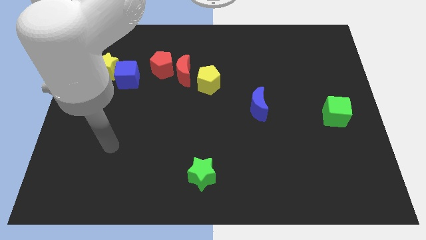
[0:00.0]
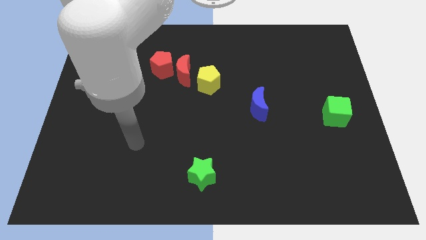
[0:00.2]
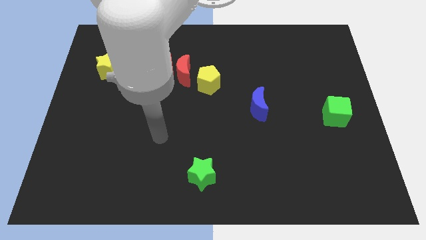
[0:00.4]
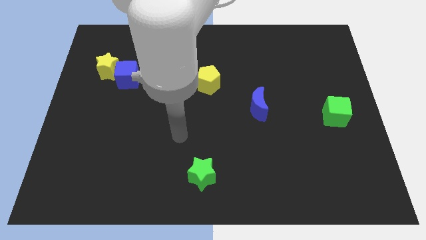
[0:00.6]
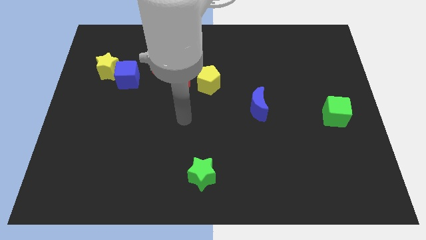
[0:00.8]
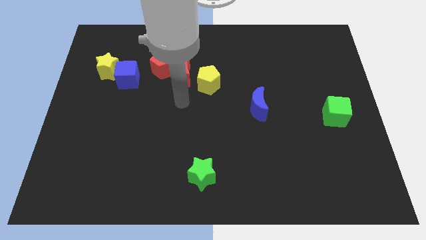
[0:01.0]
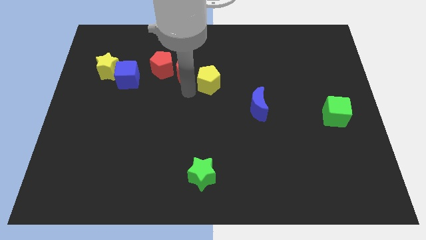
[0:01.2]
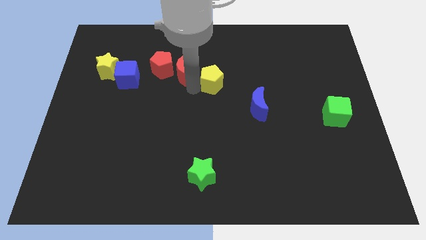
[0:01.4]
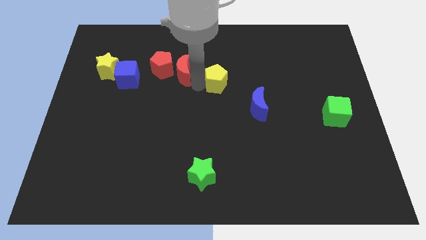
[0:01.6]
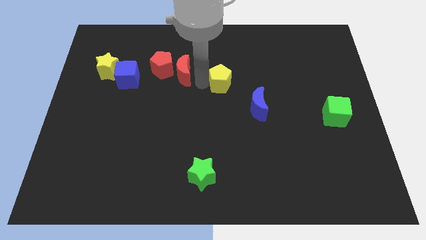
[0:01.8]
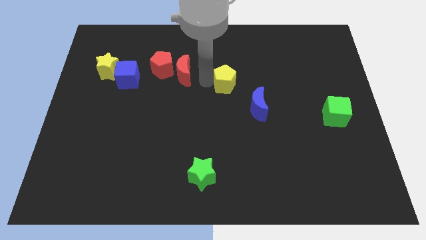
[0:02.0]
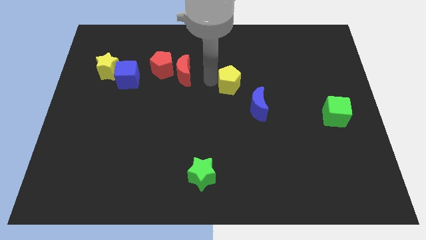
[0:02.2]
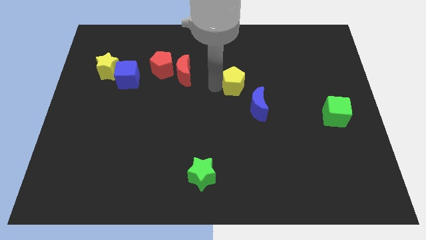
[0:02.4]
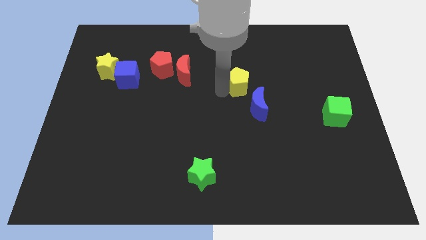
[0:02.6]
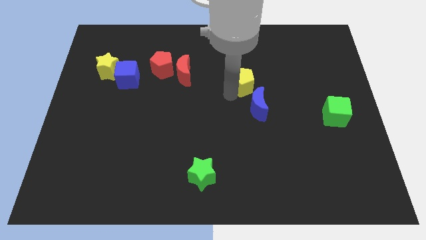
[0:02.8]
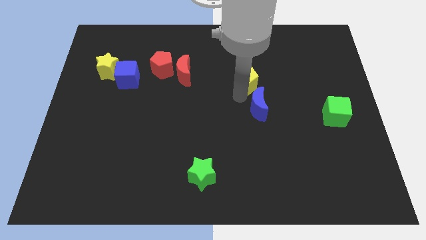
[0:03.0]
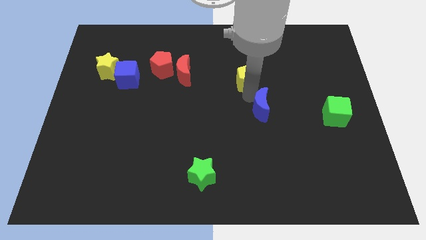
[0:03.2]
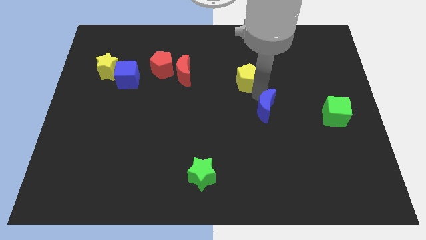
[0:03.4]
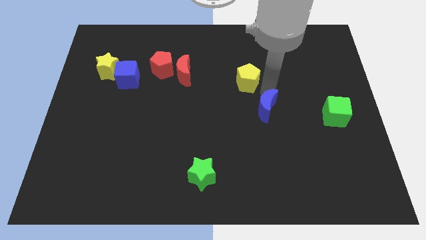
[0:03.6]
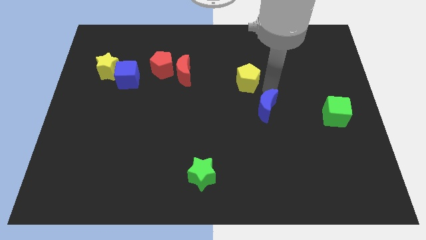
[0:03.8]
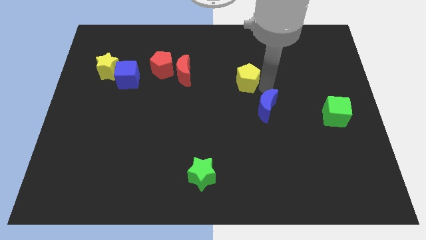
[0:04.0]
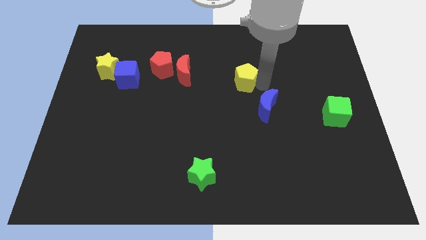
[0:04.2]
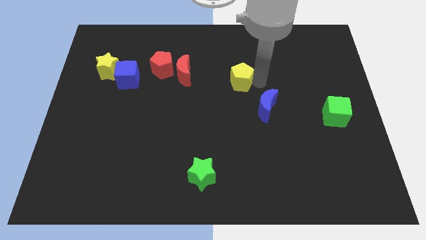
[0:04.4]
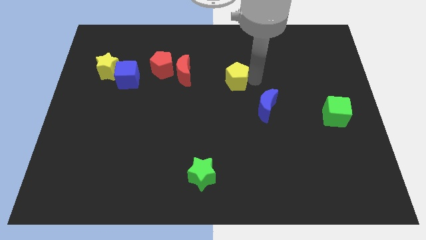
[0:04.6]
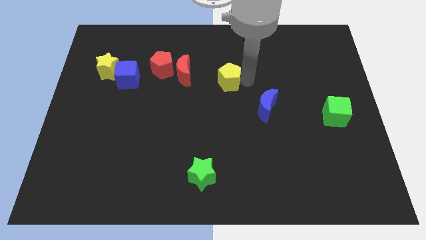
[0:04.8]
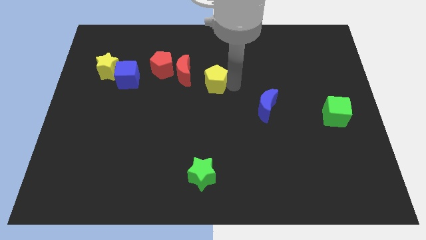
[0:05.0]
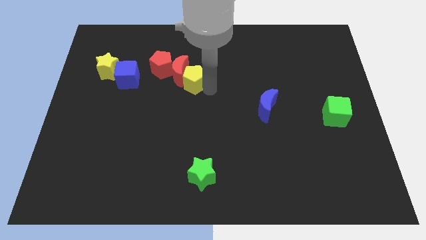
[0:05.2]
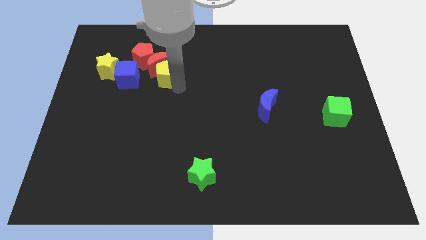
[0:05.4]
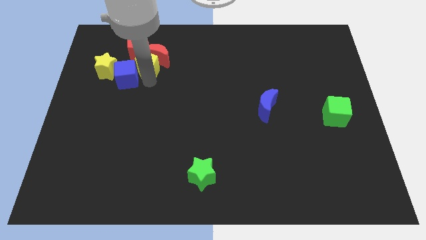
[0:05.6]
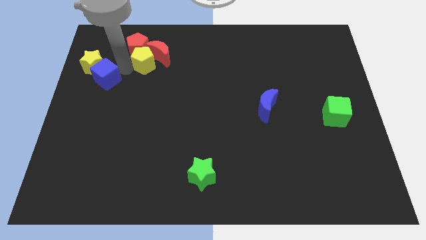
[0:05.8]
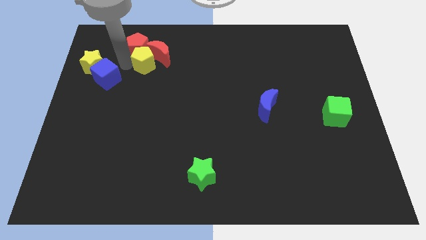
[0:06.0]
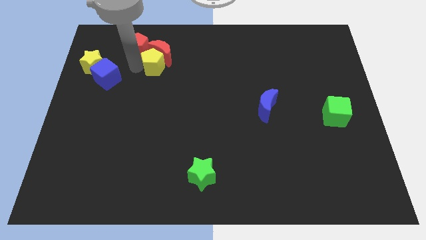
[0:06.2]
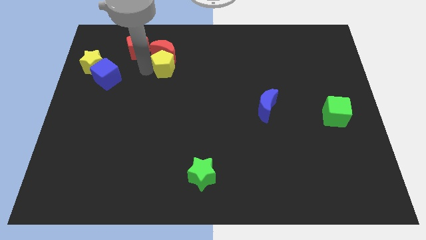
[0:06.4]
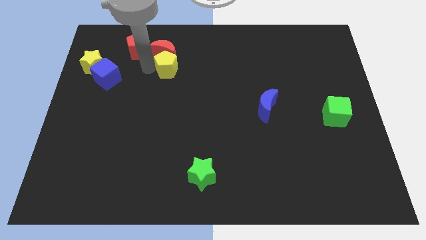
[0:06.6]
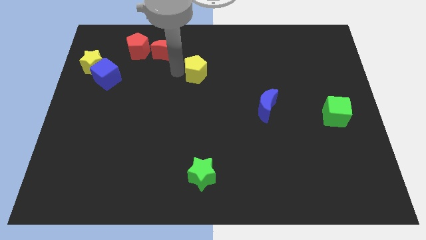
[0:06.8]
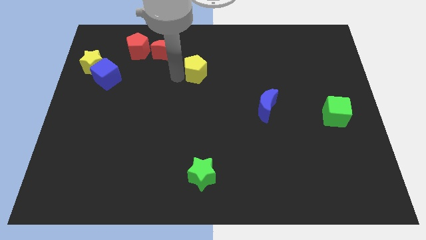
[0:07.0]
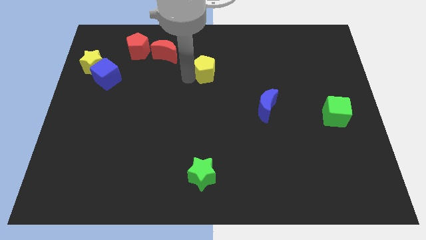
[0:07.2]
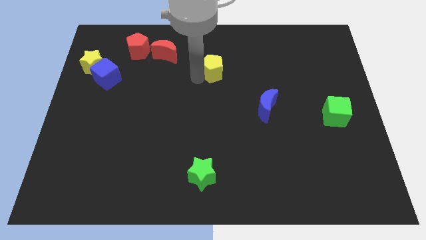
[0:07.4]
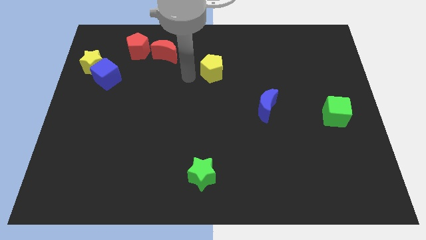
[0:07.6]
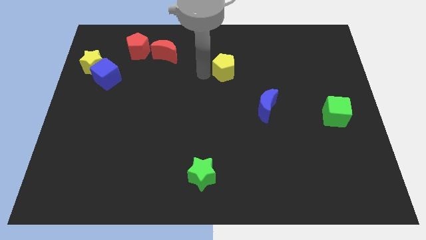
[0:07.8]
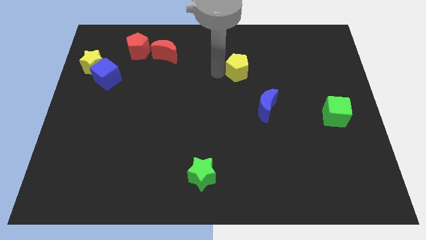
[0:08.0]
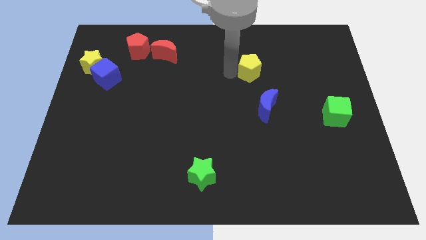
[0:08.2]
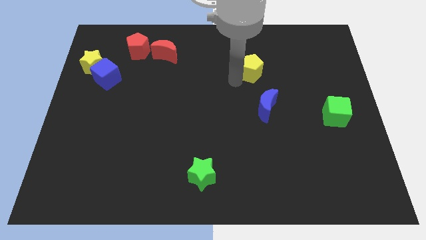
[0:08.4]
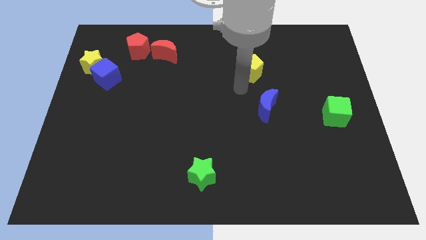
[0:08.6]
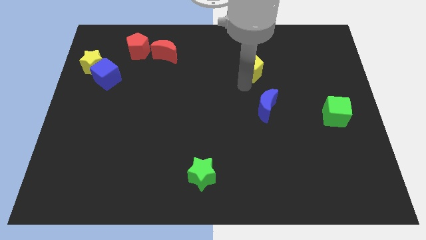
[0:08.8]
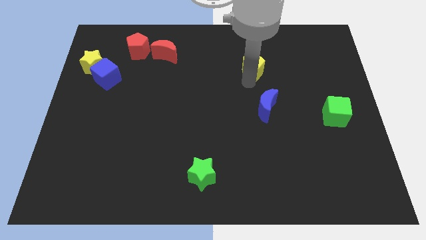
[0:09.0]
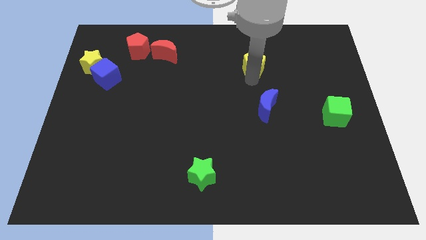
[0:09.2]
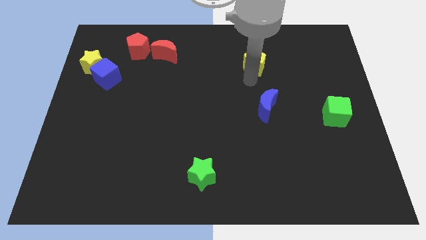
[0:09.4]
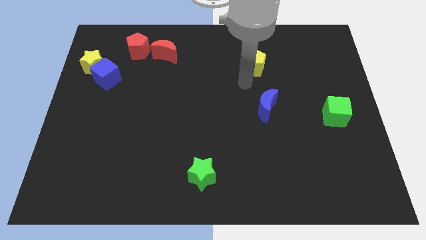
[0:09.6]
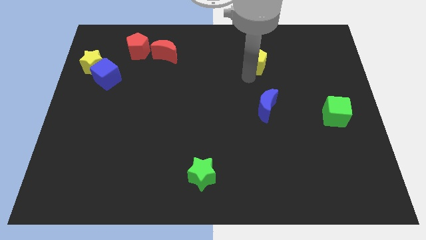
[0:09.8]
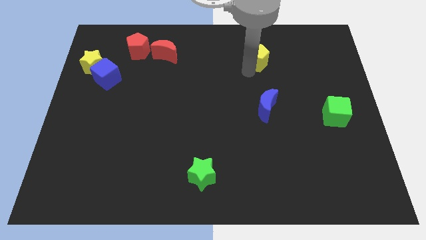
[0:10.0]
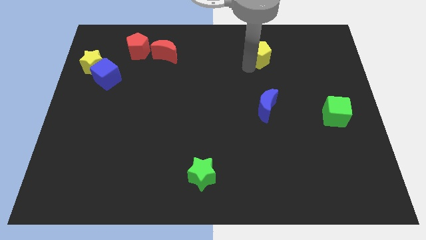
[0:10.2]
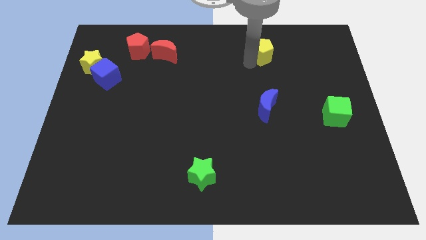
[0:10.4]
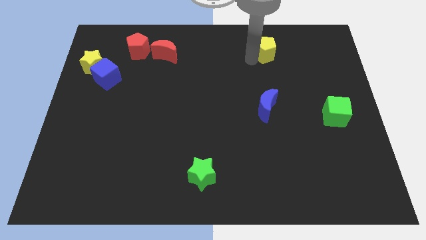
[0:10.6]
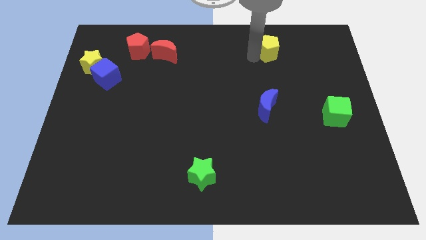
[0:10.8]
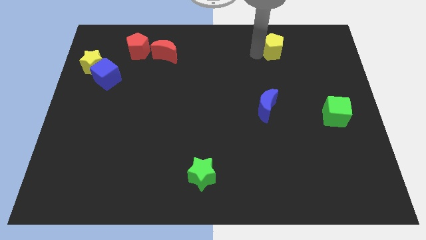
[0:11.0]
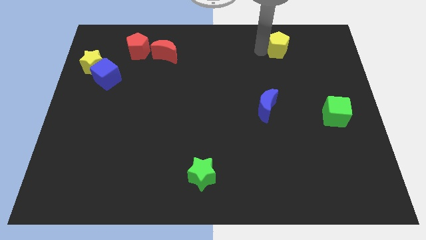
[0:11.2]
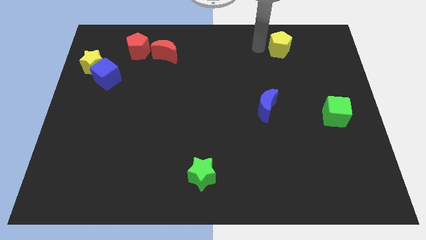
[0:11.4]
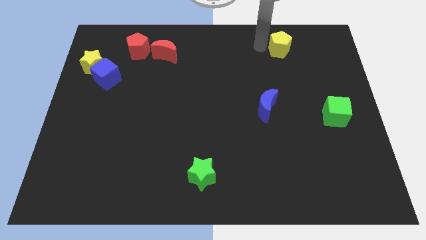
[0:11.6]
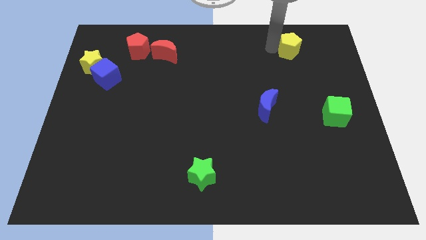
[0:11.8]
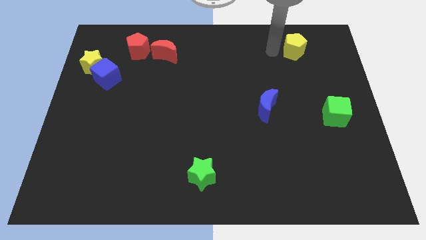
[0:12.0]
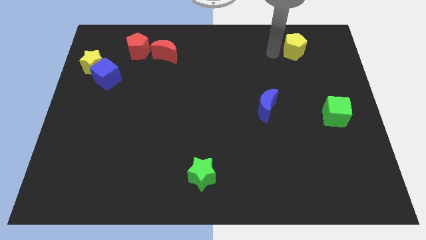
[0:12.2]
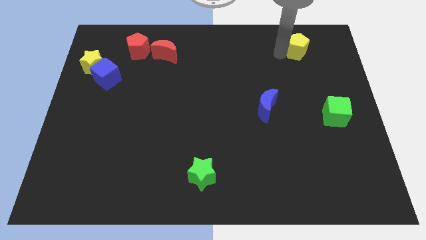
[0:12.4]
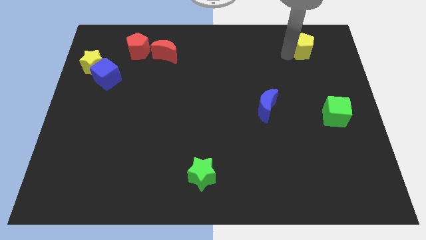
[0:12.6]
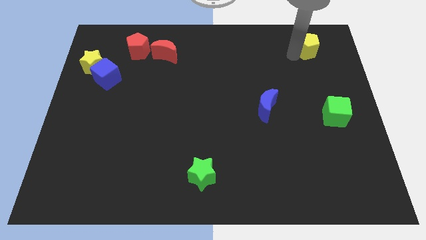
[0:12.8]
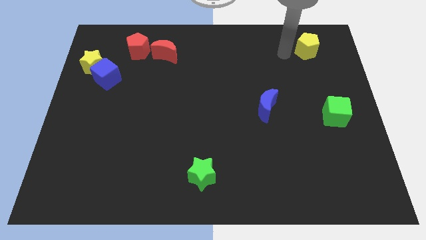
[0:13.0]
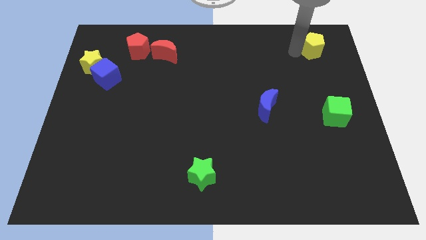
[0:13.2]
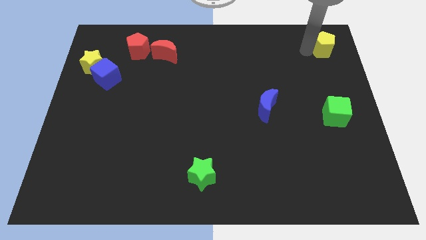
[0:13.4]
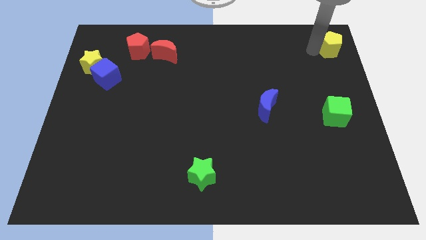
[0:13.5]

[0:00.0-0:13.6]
put the yellow pentagon to the top right corner
